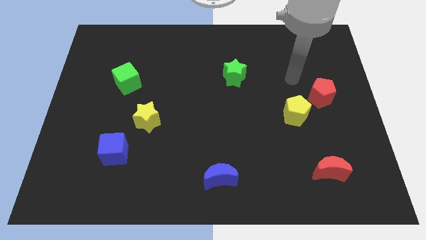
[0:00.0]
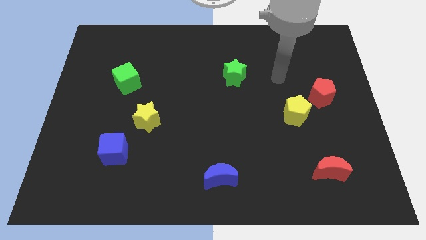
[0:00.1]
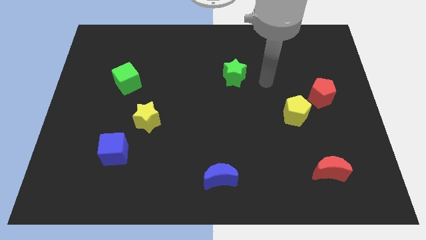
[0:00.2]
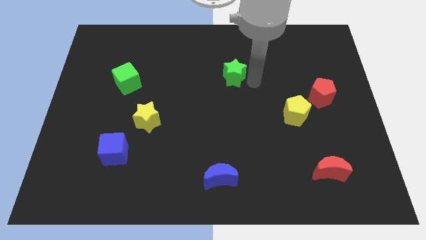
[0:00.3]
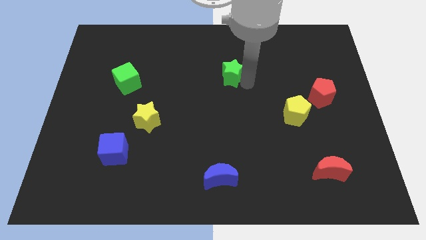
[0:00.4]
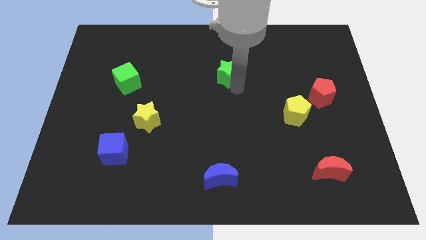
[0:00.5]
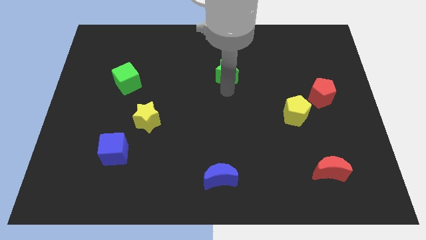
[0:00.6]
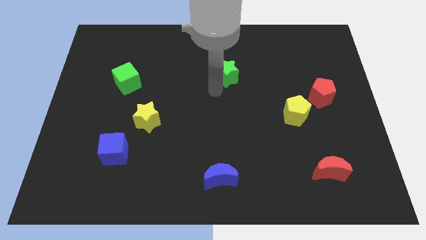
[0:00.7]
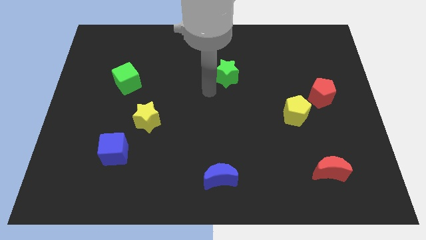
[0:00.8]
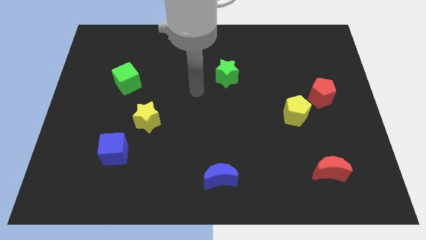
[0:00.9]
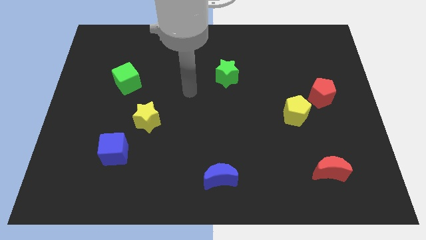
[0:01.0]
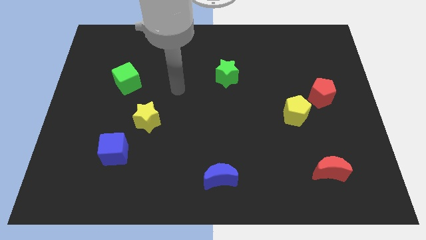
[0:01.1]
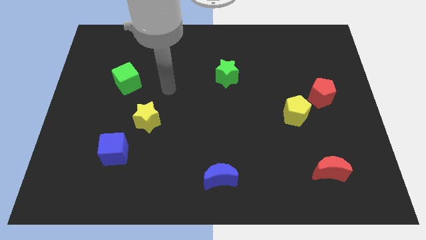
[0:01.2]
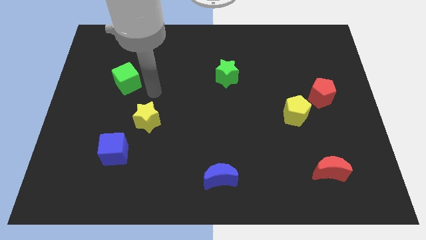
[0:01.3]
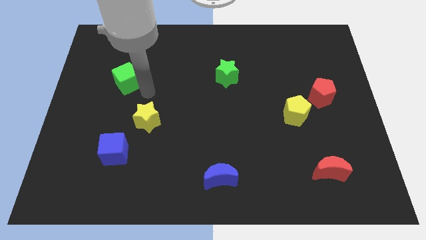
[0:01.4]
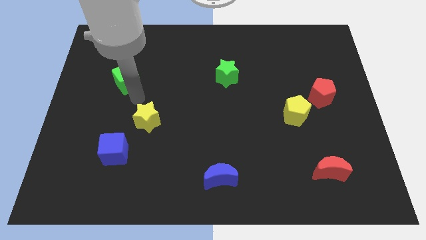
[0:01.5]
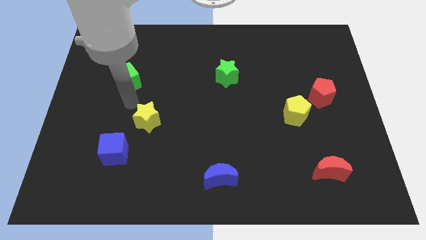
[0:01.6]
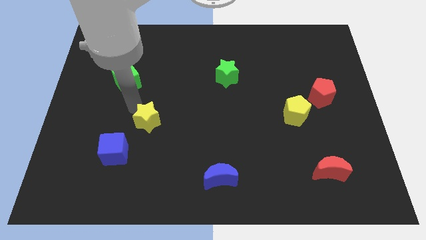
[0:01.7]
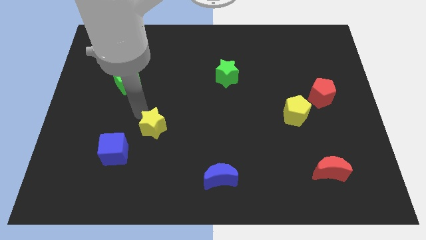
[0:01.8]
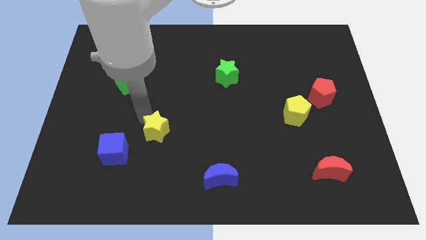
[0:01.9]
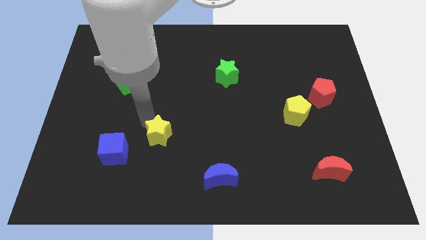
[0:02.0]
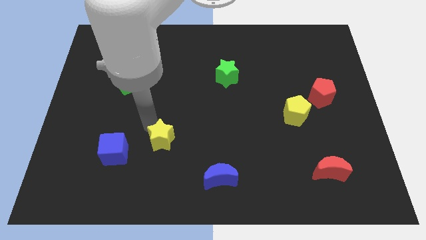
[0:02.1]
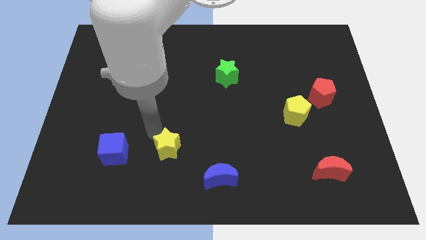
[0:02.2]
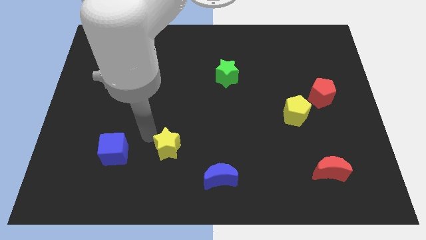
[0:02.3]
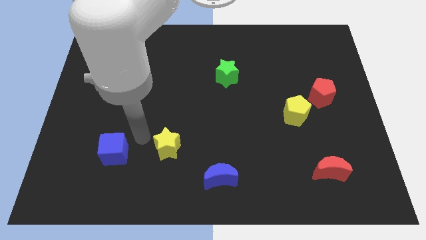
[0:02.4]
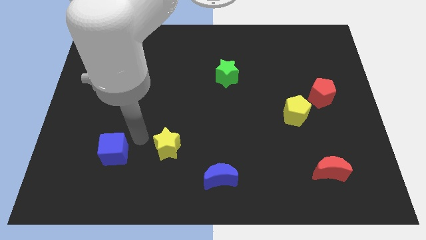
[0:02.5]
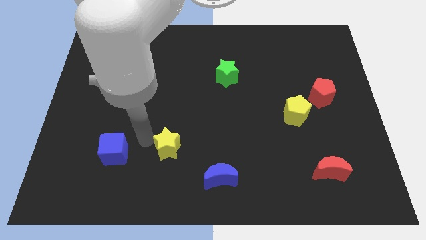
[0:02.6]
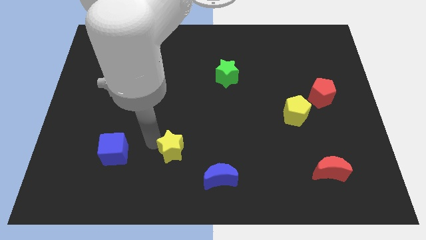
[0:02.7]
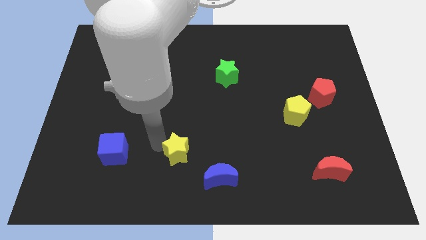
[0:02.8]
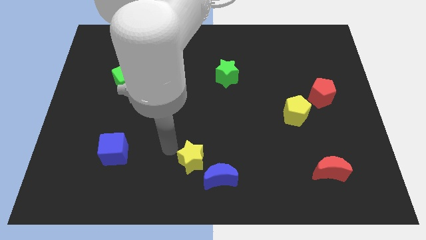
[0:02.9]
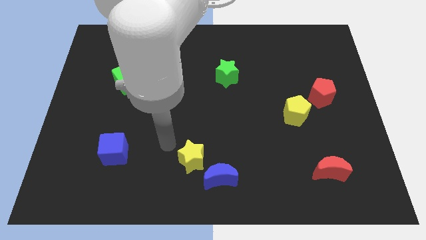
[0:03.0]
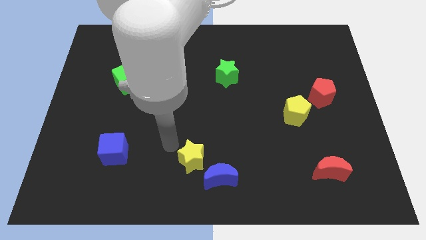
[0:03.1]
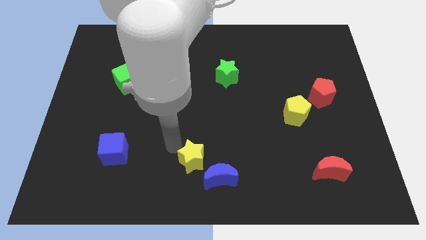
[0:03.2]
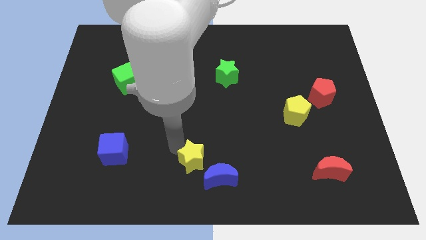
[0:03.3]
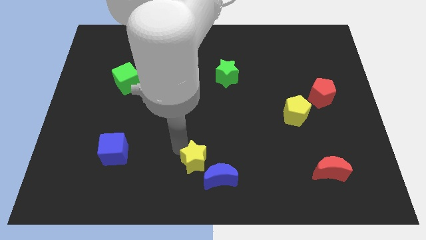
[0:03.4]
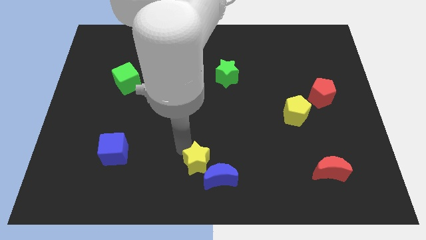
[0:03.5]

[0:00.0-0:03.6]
slide the yellow star towards the blue moon

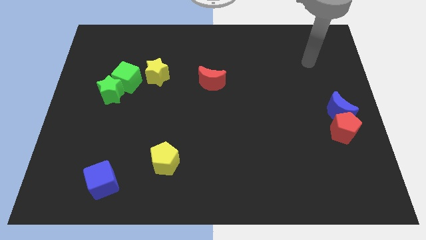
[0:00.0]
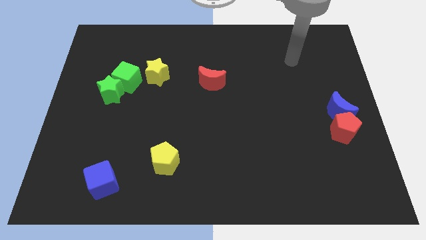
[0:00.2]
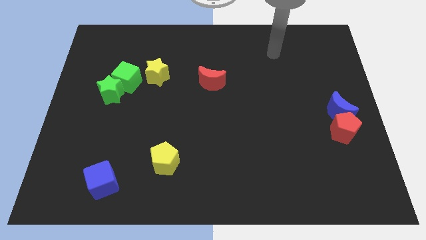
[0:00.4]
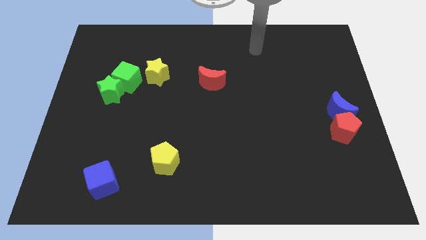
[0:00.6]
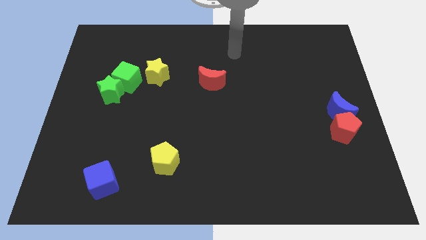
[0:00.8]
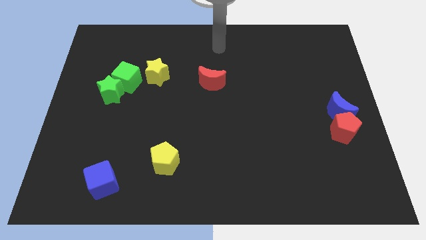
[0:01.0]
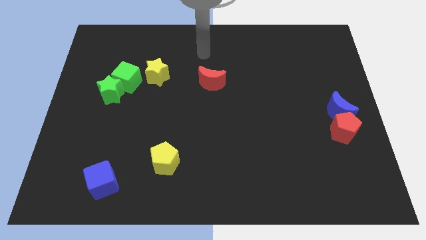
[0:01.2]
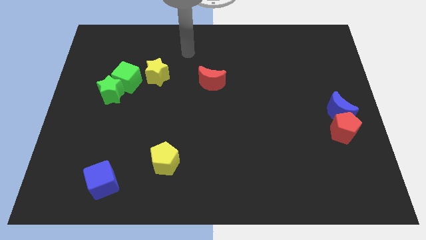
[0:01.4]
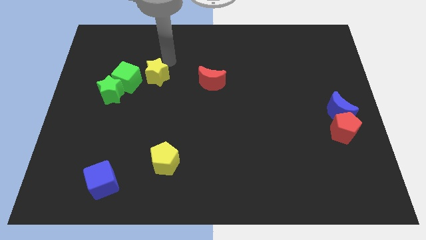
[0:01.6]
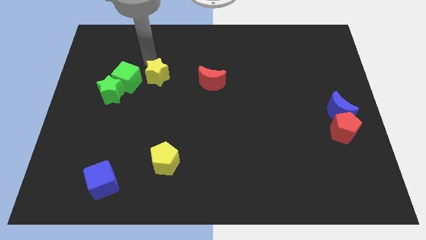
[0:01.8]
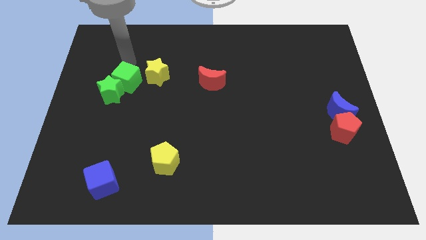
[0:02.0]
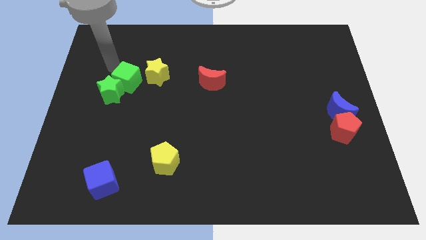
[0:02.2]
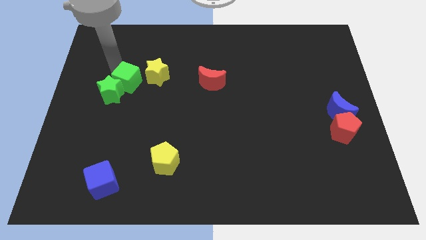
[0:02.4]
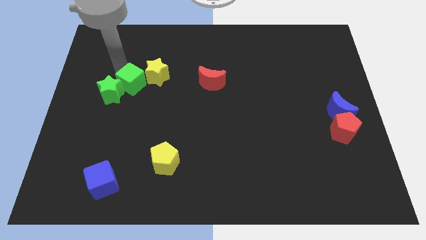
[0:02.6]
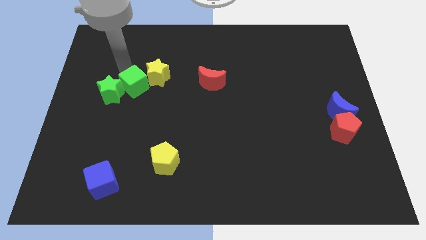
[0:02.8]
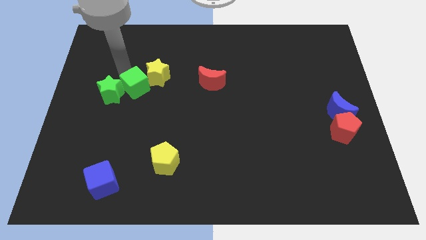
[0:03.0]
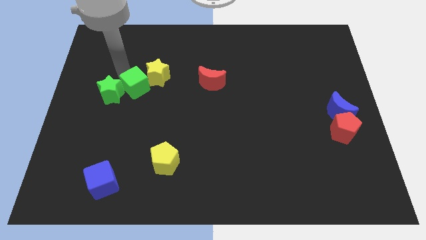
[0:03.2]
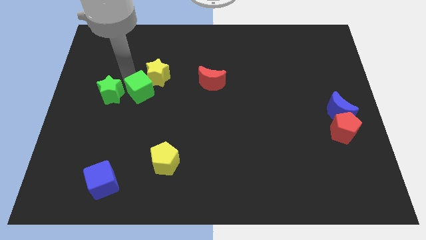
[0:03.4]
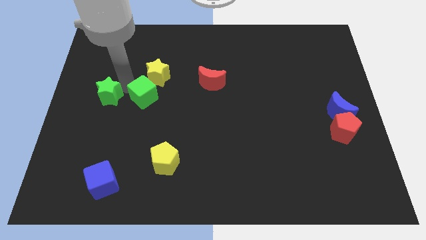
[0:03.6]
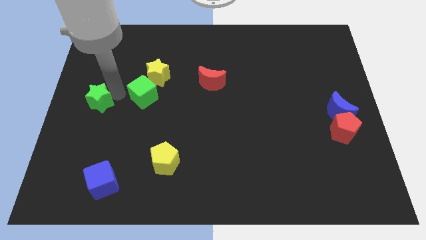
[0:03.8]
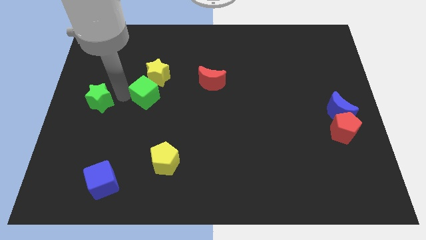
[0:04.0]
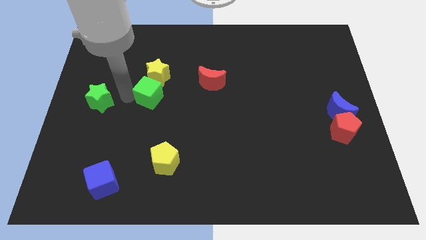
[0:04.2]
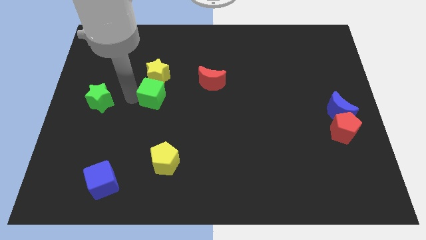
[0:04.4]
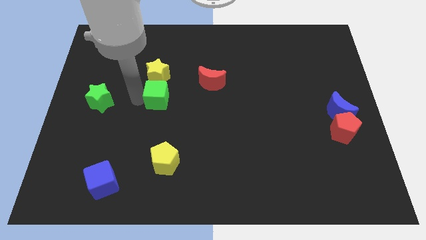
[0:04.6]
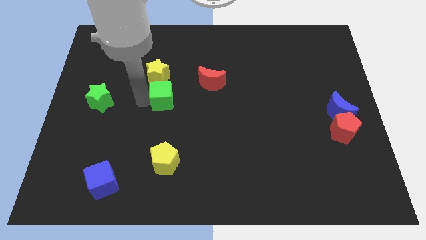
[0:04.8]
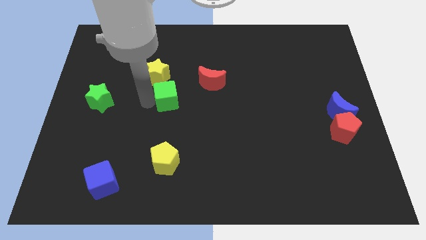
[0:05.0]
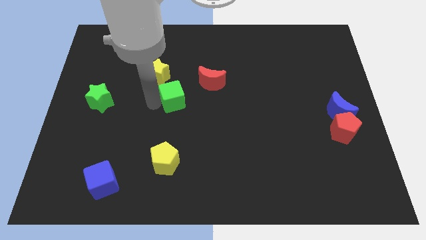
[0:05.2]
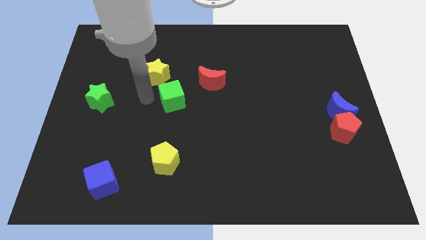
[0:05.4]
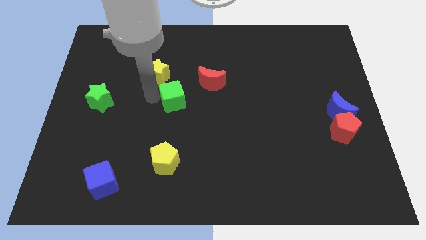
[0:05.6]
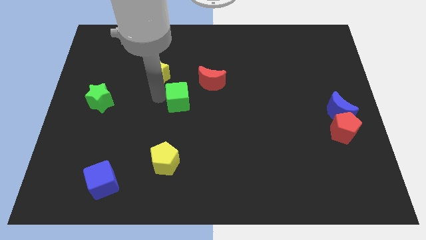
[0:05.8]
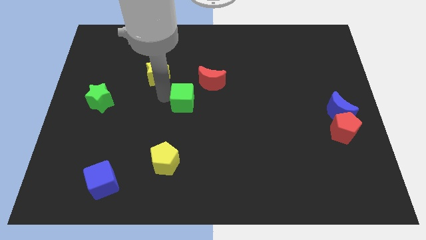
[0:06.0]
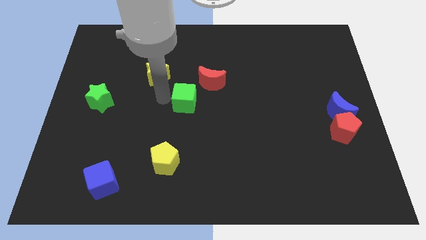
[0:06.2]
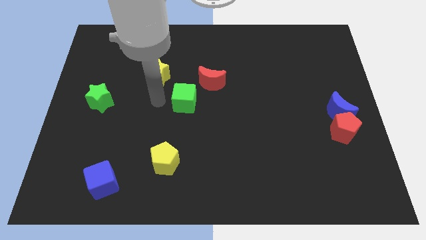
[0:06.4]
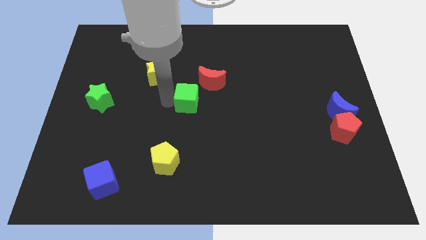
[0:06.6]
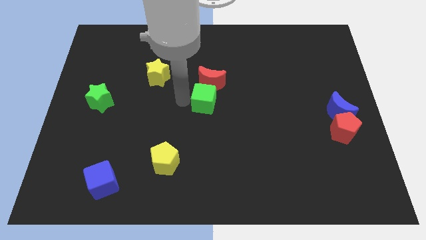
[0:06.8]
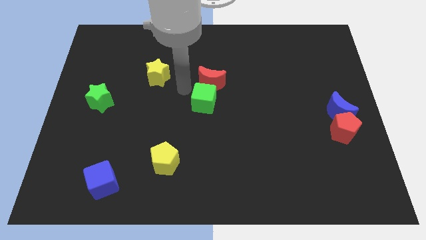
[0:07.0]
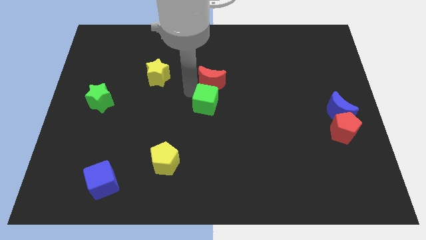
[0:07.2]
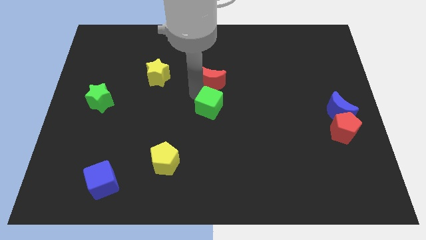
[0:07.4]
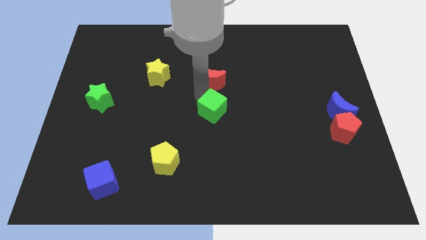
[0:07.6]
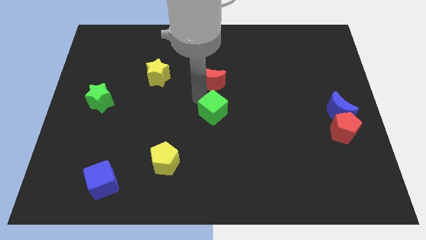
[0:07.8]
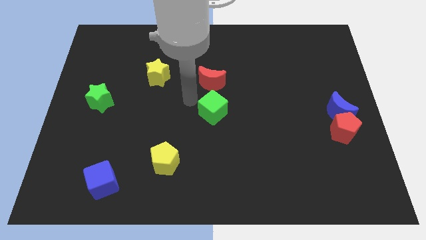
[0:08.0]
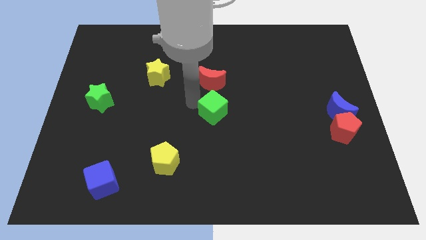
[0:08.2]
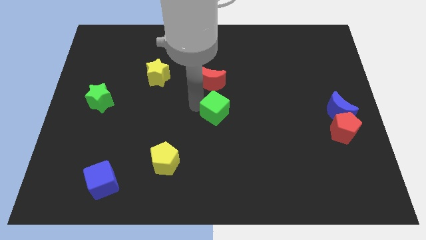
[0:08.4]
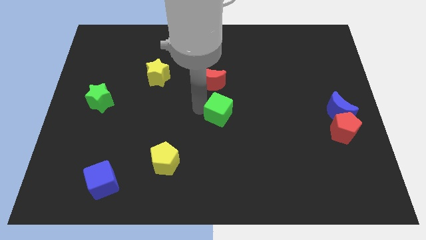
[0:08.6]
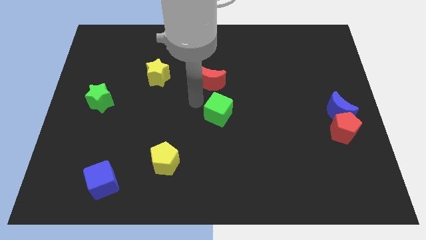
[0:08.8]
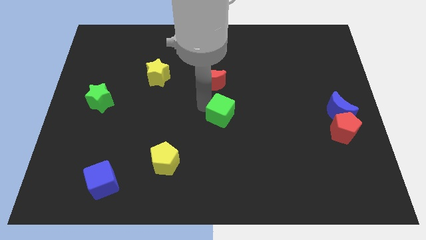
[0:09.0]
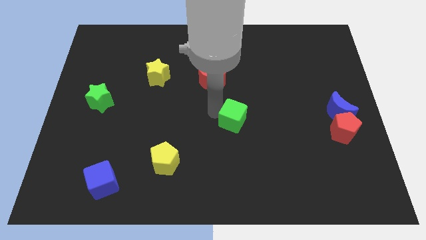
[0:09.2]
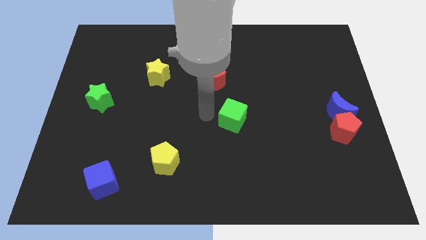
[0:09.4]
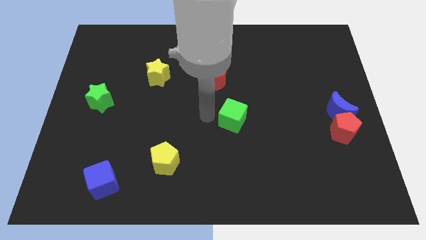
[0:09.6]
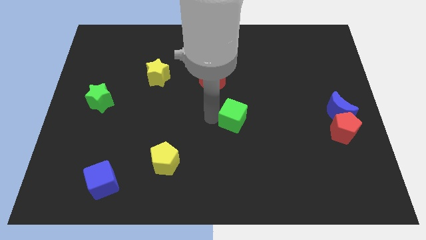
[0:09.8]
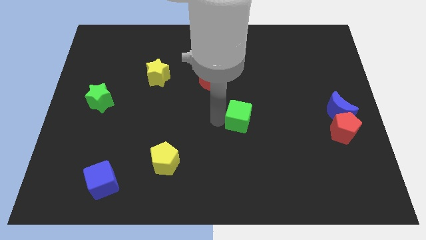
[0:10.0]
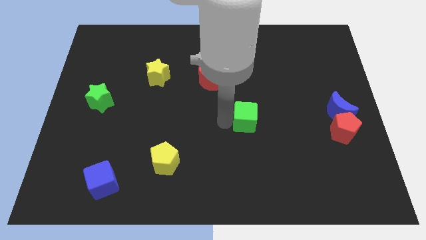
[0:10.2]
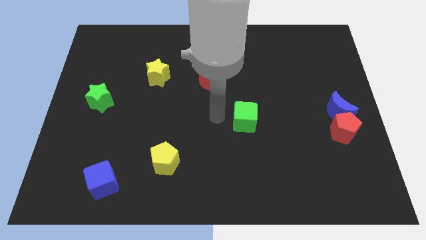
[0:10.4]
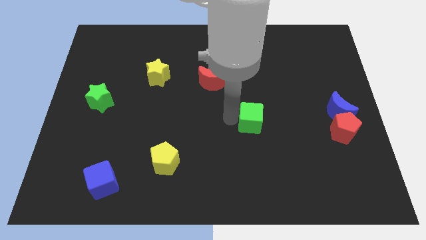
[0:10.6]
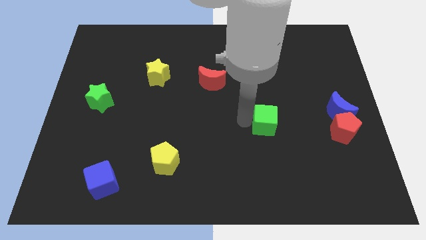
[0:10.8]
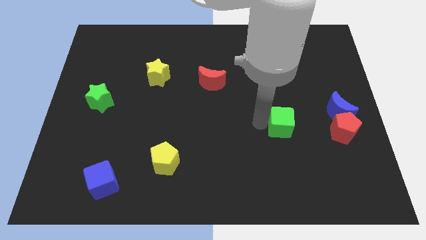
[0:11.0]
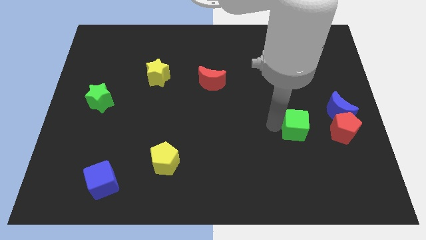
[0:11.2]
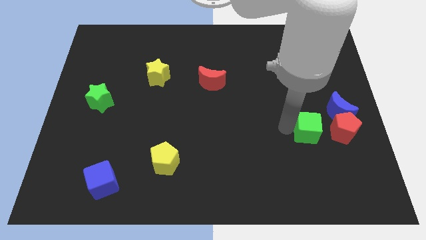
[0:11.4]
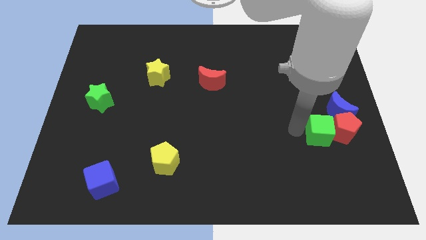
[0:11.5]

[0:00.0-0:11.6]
push the green cube next to the red pentagon
